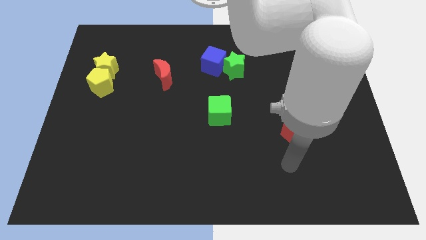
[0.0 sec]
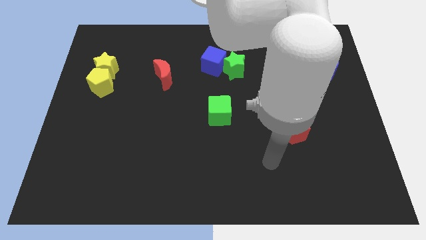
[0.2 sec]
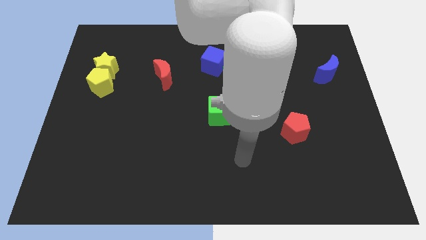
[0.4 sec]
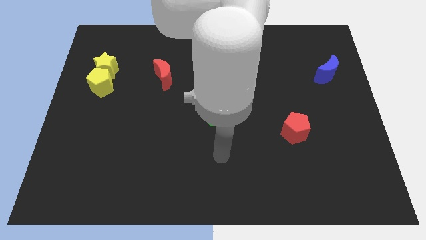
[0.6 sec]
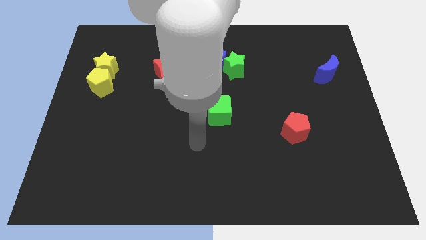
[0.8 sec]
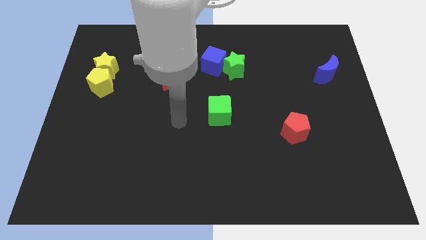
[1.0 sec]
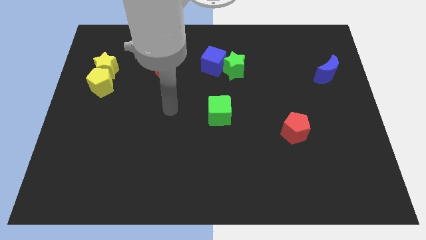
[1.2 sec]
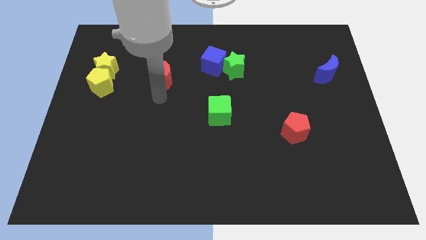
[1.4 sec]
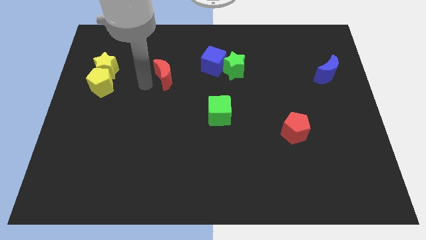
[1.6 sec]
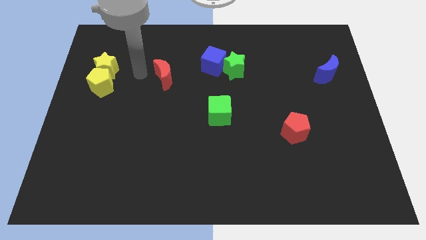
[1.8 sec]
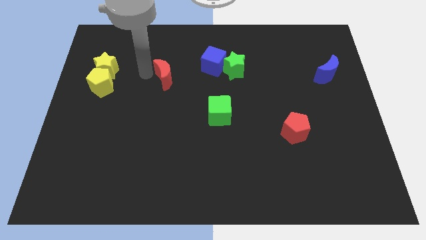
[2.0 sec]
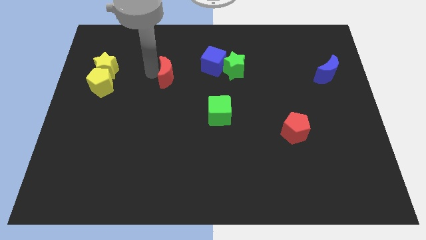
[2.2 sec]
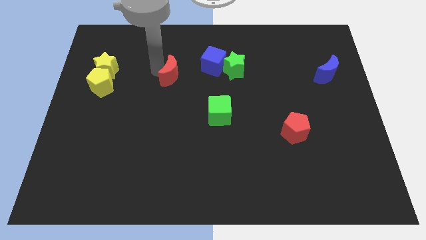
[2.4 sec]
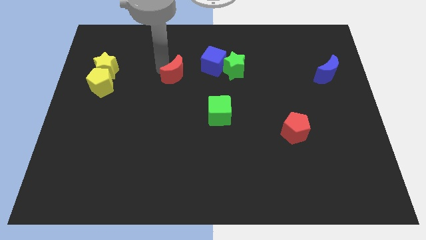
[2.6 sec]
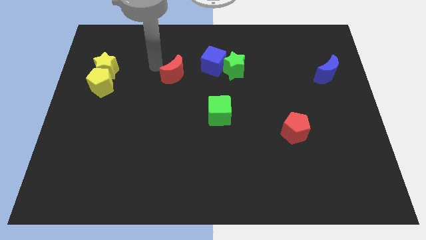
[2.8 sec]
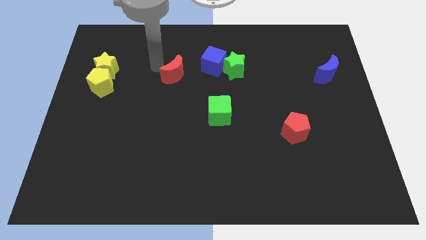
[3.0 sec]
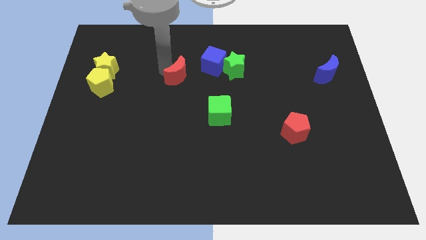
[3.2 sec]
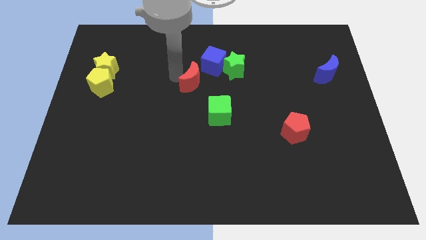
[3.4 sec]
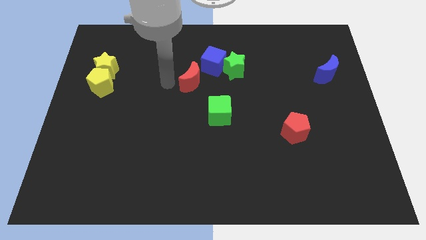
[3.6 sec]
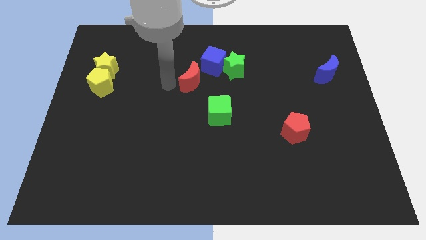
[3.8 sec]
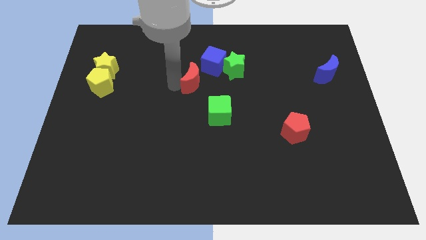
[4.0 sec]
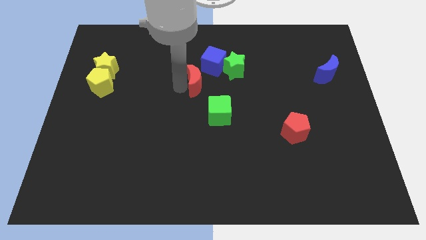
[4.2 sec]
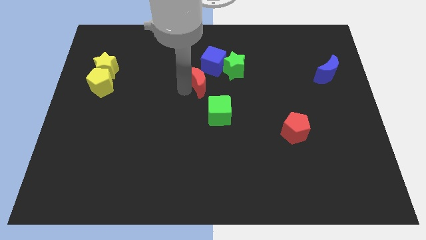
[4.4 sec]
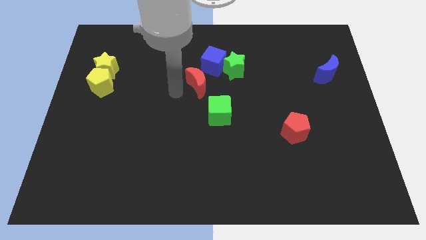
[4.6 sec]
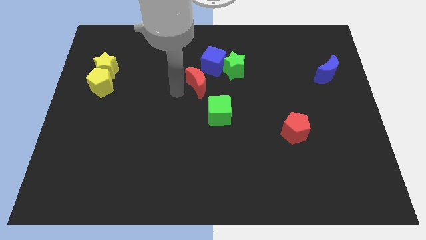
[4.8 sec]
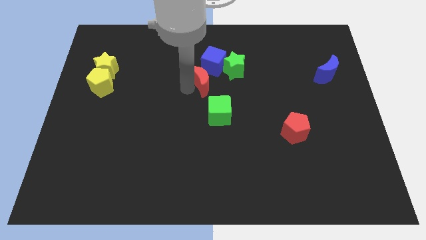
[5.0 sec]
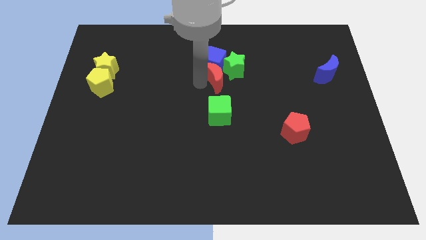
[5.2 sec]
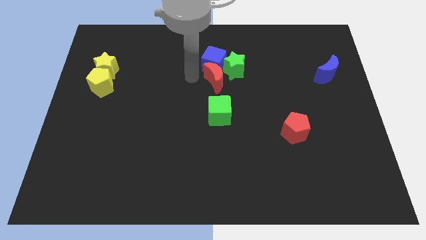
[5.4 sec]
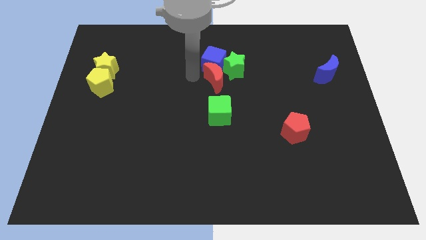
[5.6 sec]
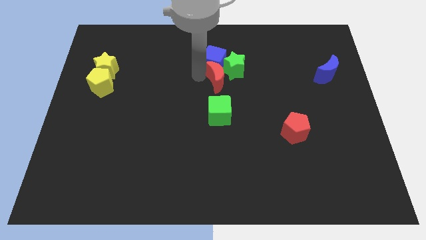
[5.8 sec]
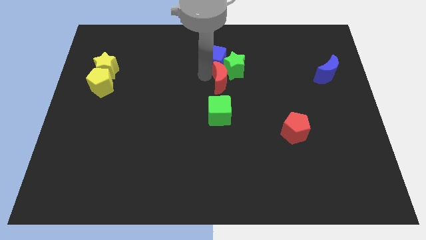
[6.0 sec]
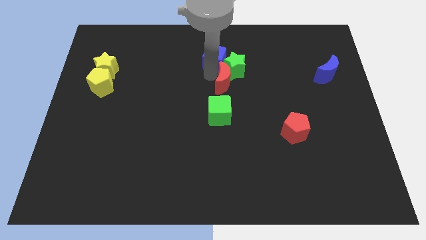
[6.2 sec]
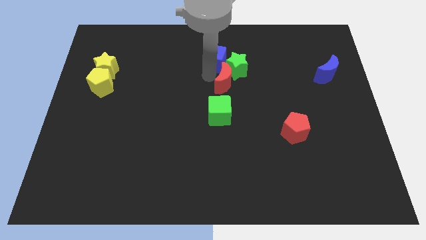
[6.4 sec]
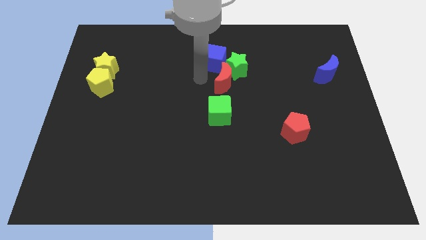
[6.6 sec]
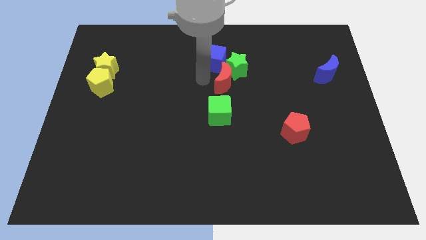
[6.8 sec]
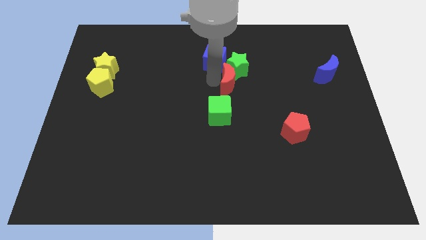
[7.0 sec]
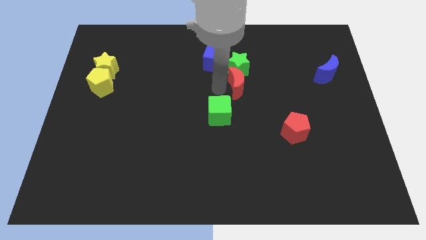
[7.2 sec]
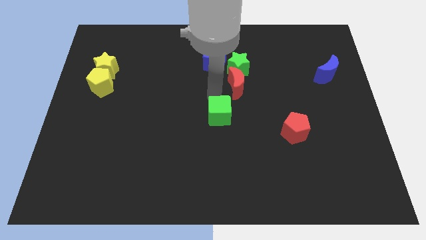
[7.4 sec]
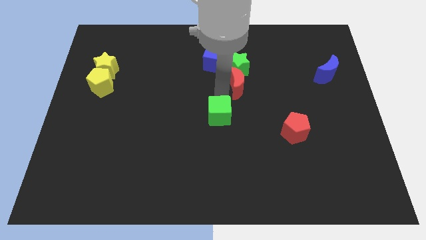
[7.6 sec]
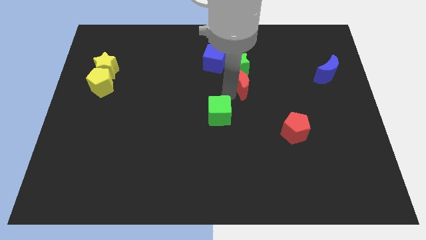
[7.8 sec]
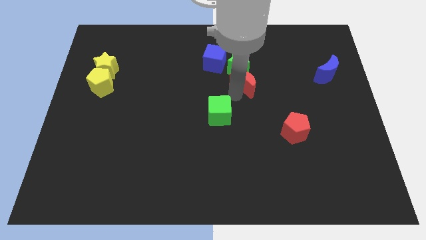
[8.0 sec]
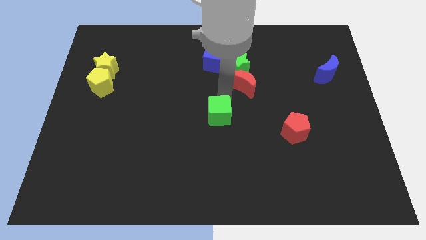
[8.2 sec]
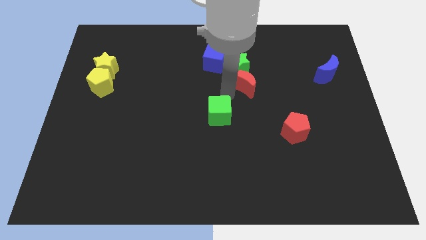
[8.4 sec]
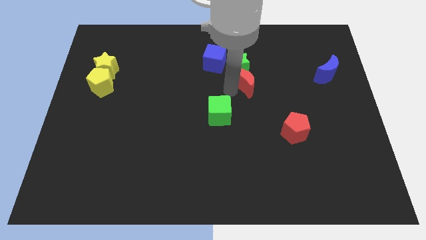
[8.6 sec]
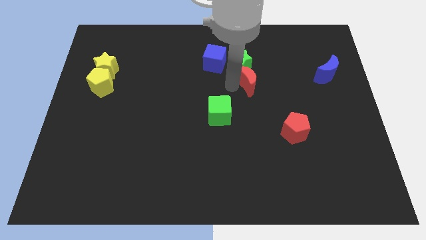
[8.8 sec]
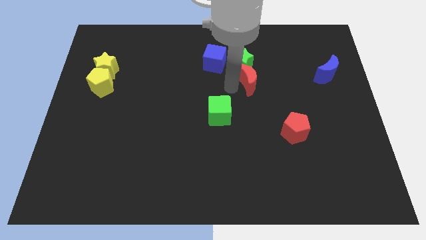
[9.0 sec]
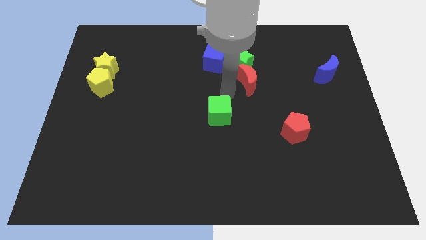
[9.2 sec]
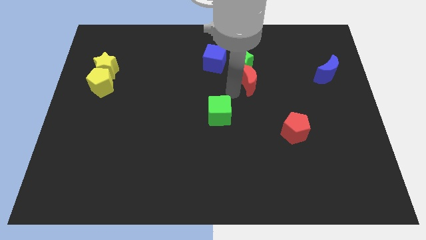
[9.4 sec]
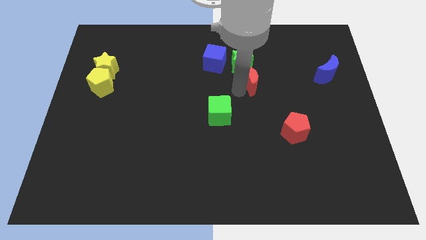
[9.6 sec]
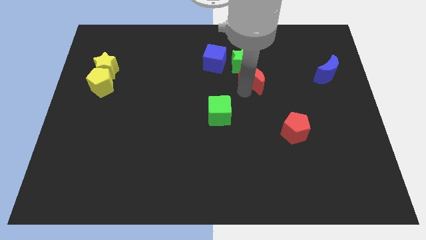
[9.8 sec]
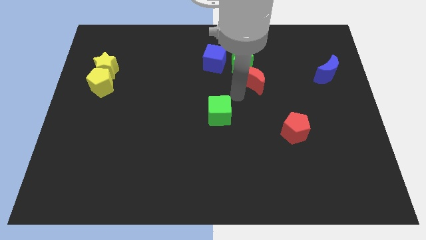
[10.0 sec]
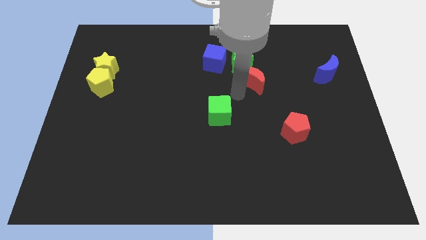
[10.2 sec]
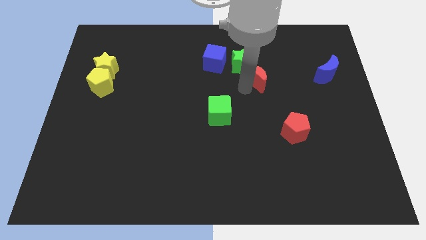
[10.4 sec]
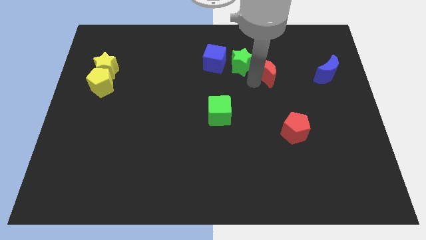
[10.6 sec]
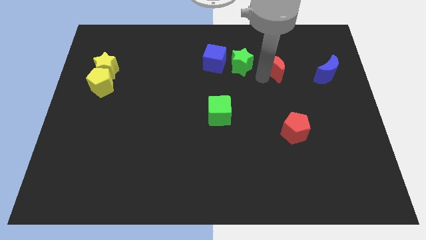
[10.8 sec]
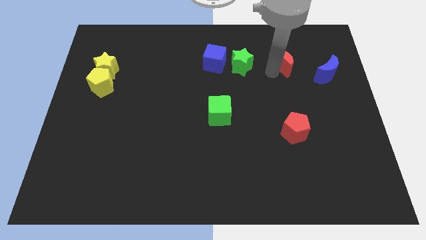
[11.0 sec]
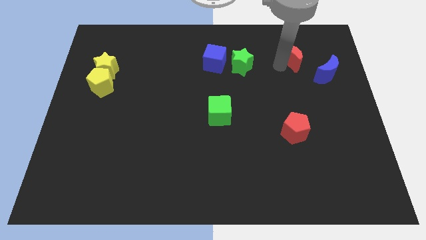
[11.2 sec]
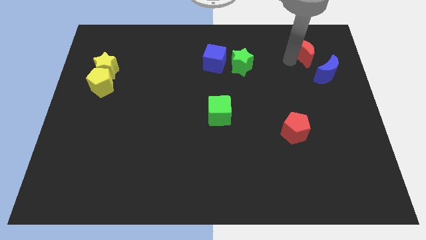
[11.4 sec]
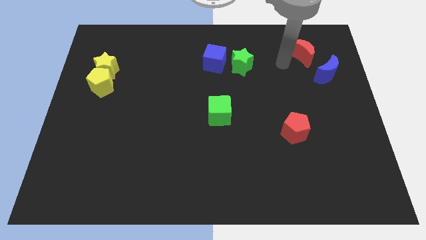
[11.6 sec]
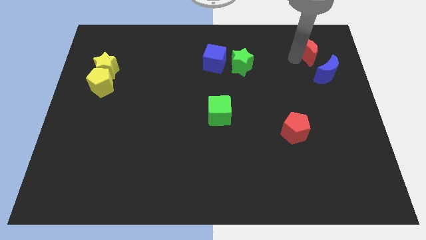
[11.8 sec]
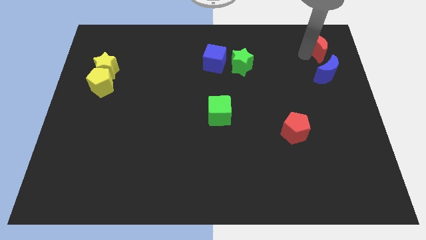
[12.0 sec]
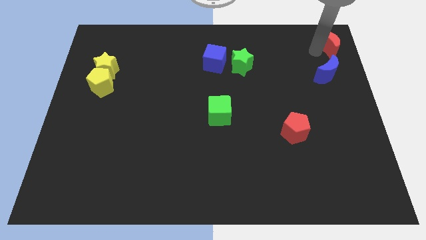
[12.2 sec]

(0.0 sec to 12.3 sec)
push the red moon to the top right corner
